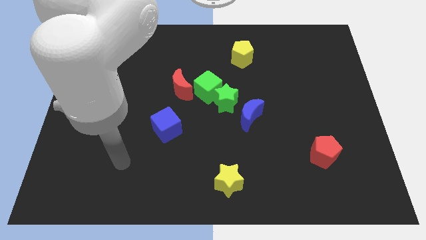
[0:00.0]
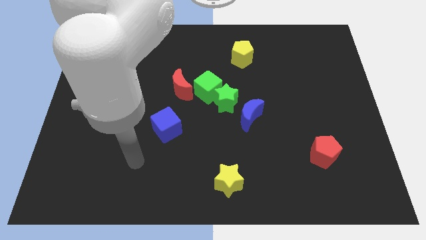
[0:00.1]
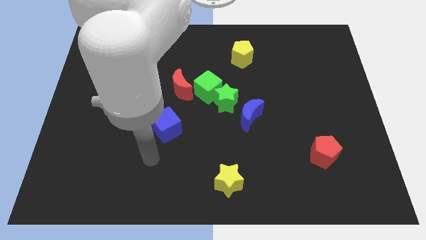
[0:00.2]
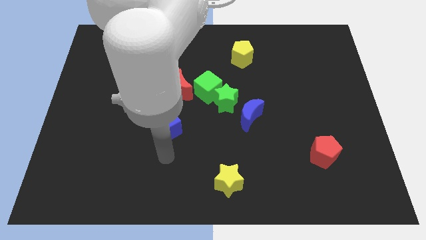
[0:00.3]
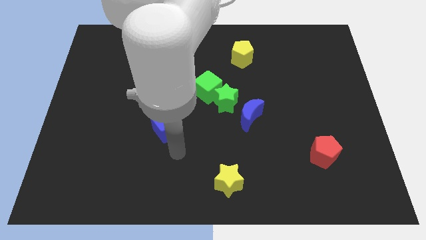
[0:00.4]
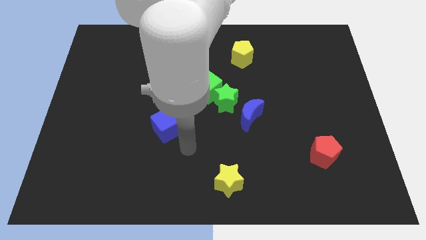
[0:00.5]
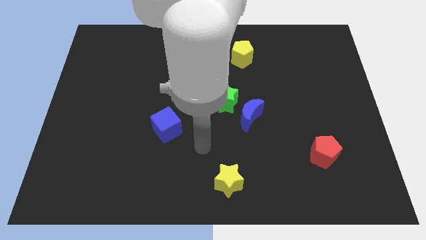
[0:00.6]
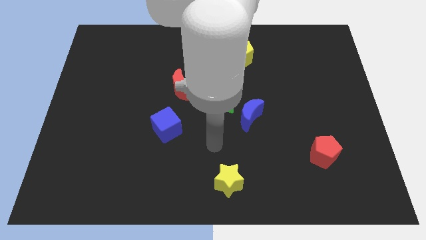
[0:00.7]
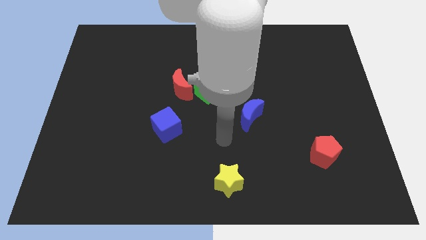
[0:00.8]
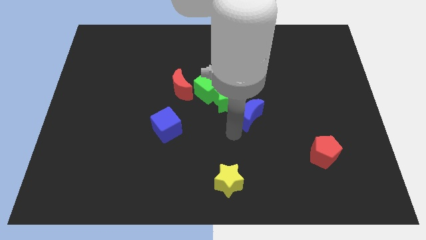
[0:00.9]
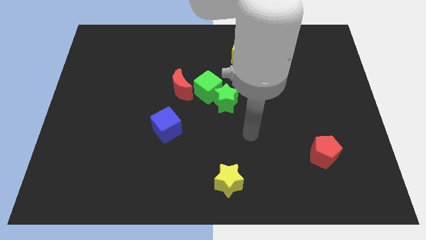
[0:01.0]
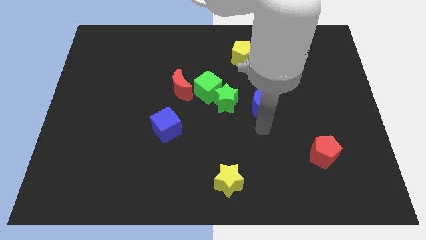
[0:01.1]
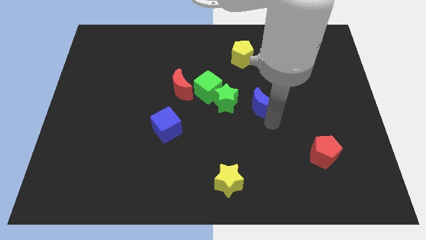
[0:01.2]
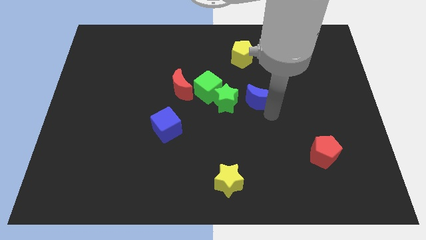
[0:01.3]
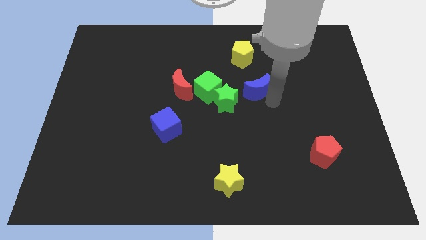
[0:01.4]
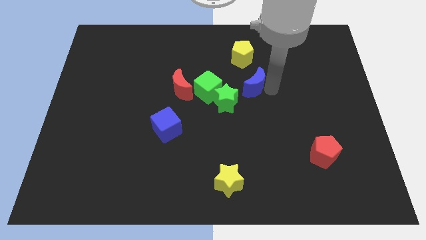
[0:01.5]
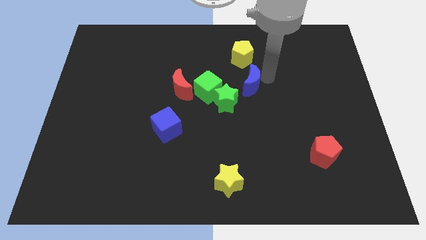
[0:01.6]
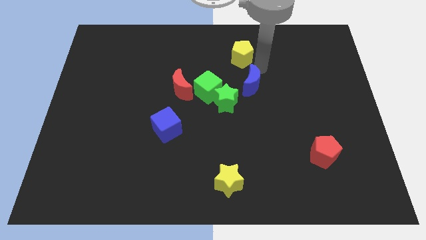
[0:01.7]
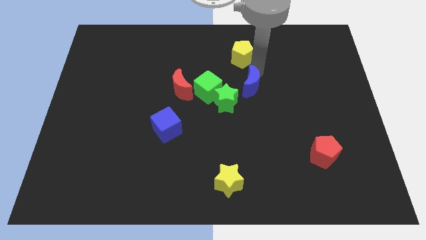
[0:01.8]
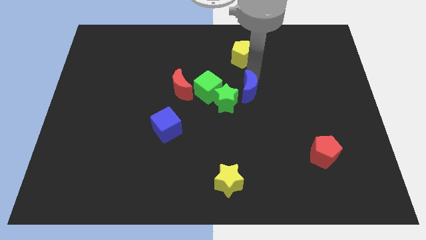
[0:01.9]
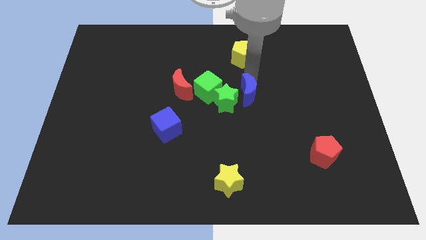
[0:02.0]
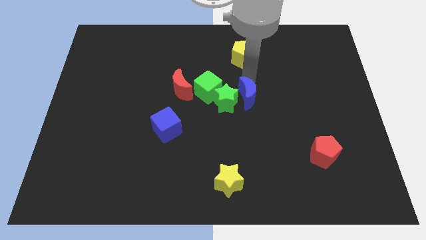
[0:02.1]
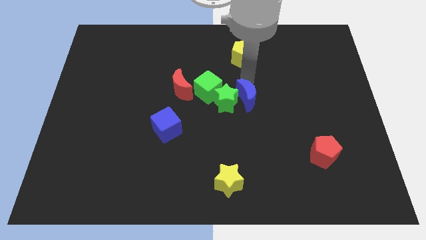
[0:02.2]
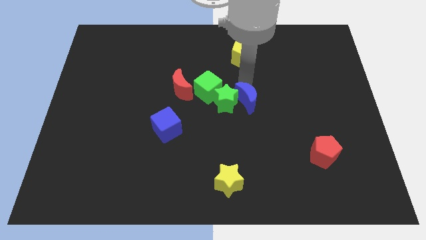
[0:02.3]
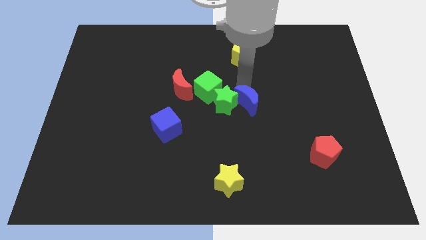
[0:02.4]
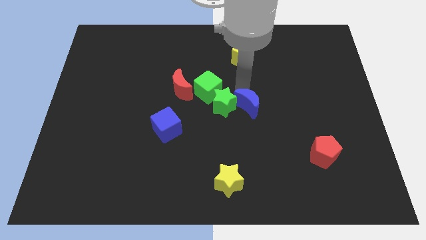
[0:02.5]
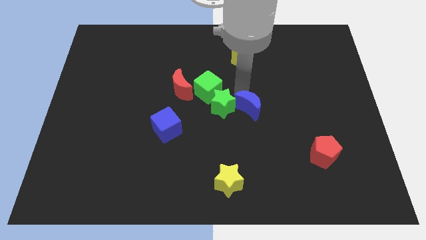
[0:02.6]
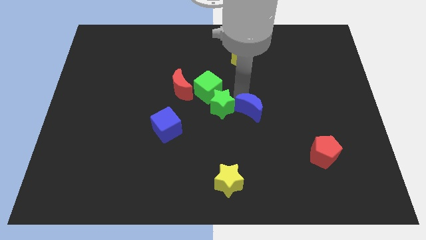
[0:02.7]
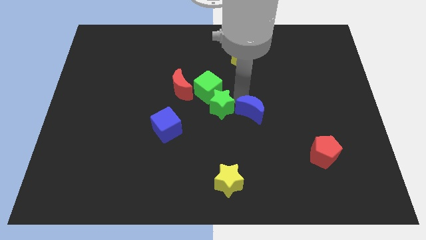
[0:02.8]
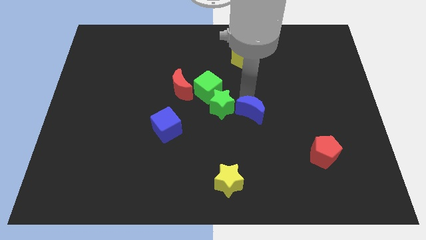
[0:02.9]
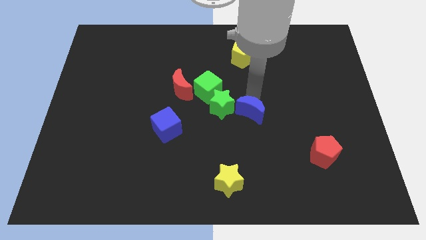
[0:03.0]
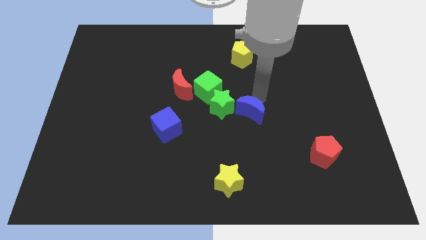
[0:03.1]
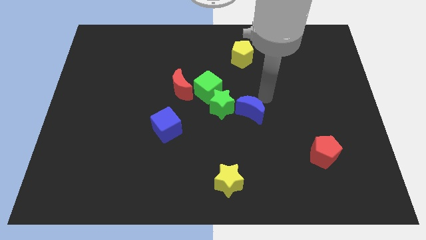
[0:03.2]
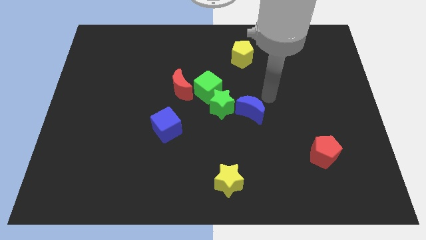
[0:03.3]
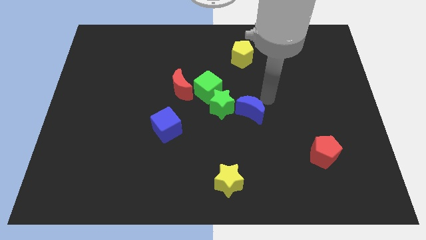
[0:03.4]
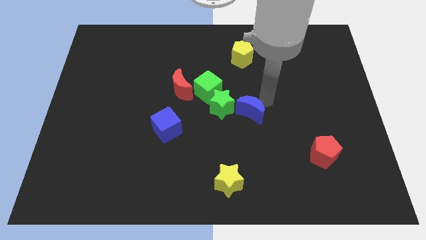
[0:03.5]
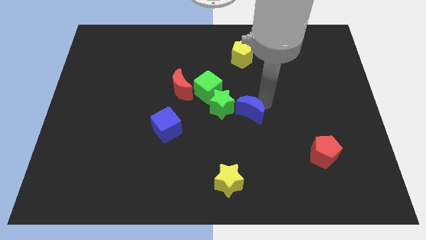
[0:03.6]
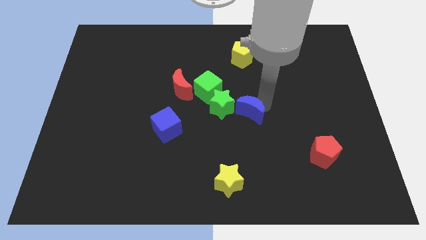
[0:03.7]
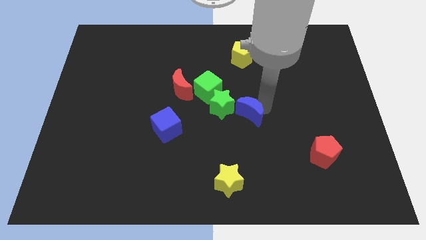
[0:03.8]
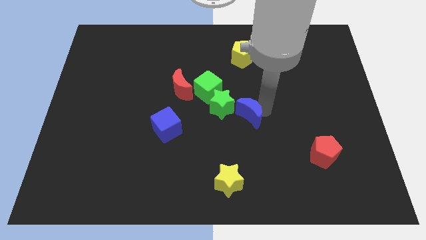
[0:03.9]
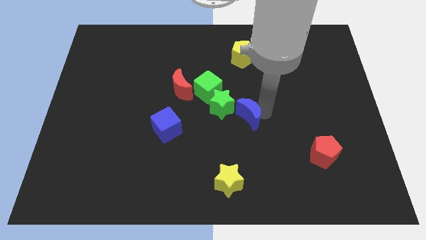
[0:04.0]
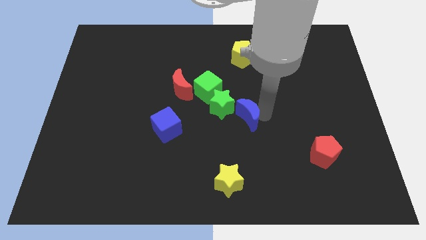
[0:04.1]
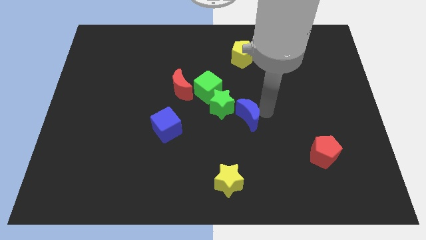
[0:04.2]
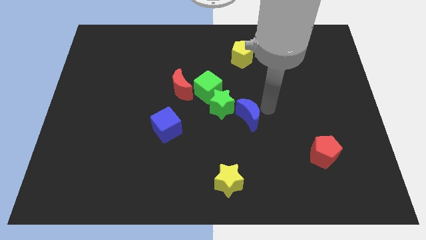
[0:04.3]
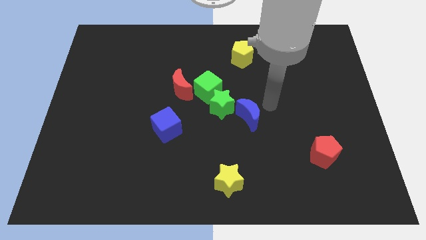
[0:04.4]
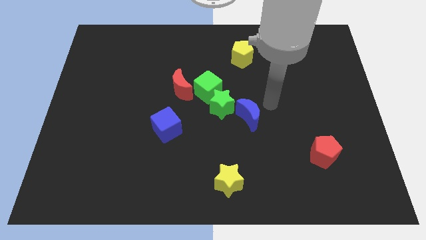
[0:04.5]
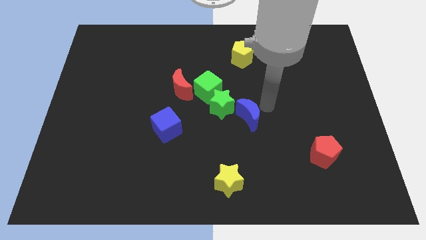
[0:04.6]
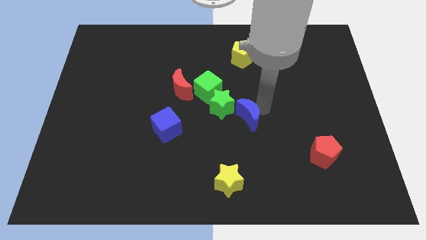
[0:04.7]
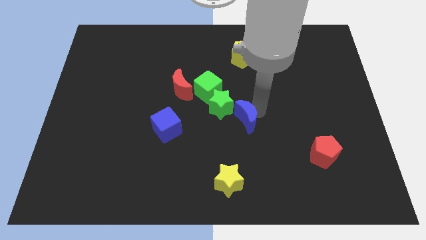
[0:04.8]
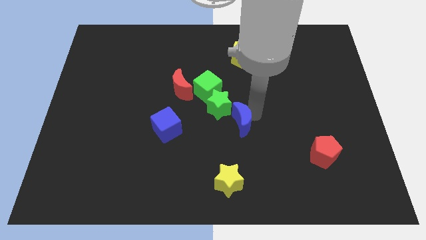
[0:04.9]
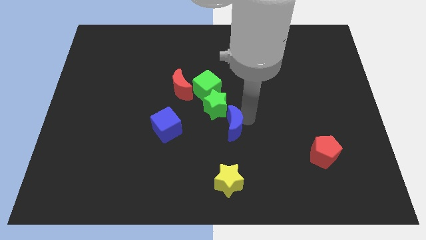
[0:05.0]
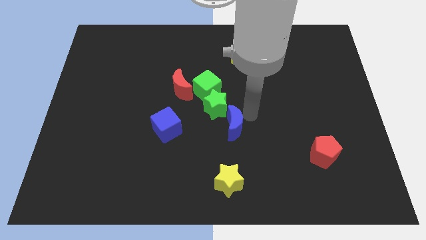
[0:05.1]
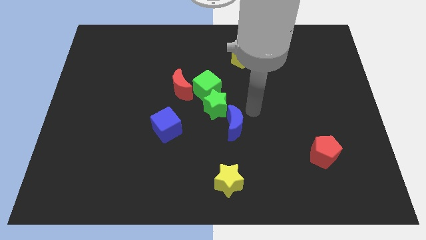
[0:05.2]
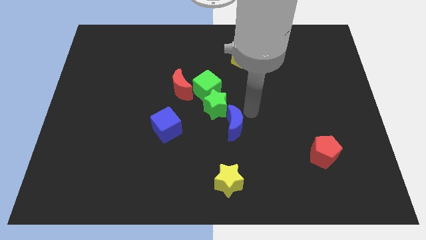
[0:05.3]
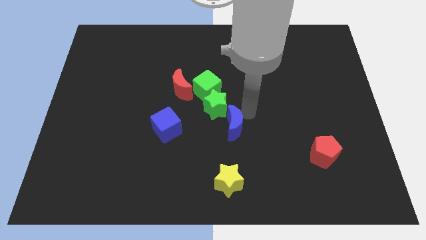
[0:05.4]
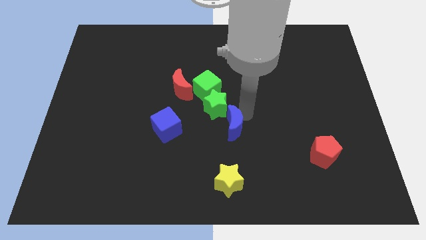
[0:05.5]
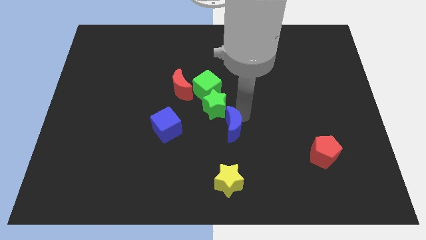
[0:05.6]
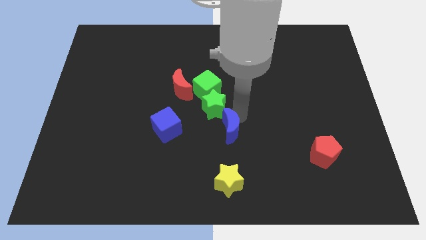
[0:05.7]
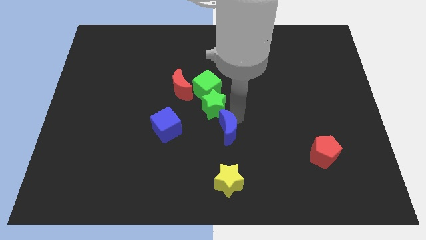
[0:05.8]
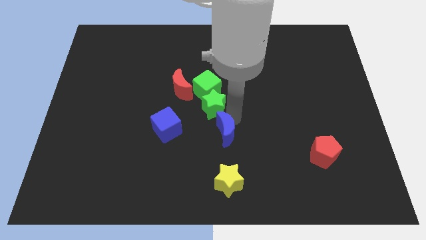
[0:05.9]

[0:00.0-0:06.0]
push the blue moon down and then to the left somewhat

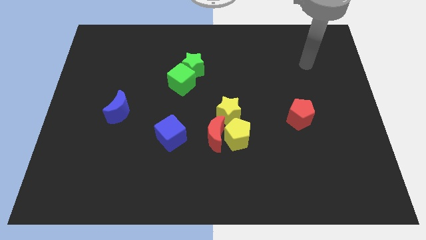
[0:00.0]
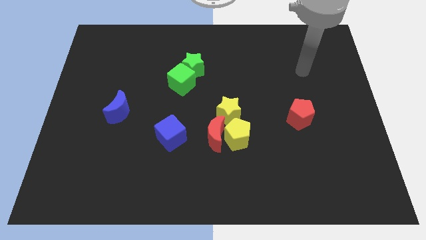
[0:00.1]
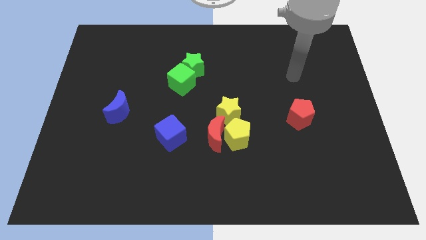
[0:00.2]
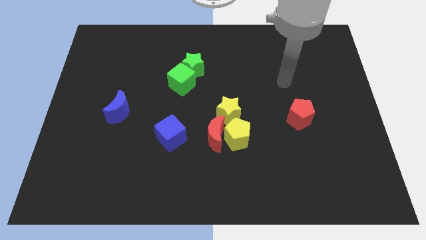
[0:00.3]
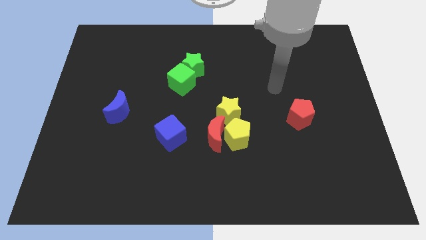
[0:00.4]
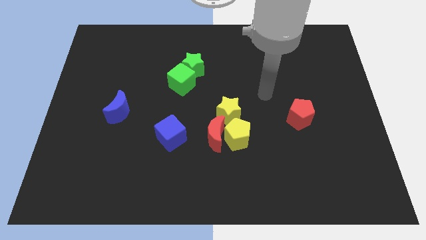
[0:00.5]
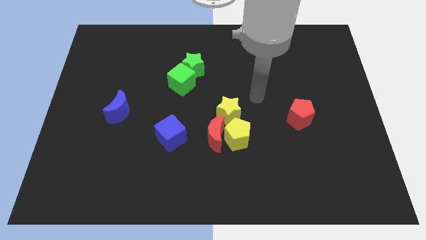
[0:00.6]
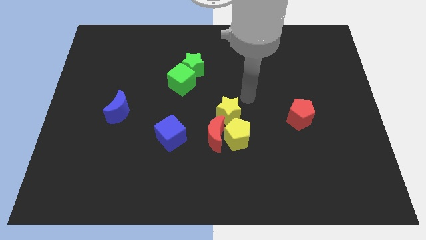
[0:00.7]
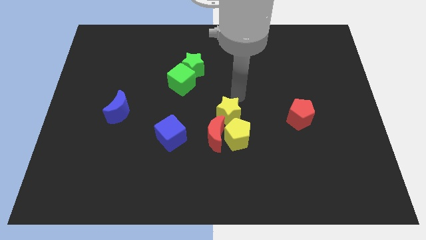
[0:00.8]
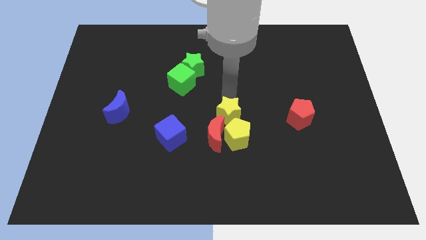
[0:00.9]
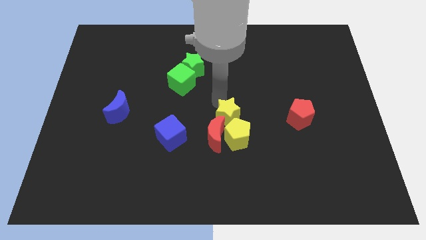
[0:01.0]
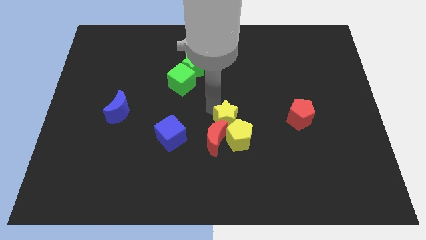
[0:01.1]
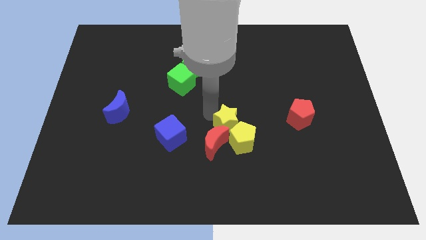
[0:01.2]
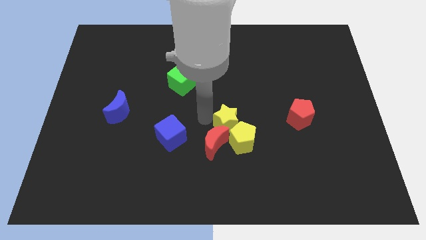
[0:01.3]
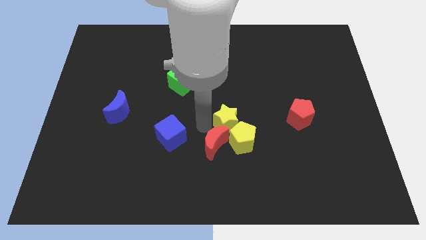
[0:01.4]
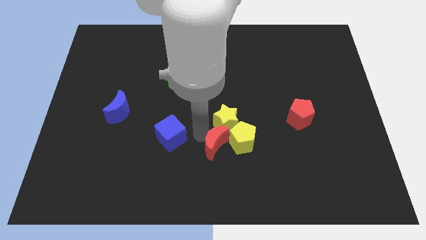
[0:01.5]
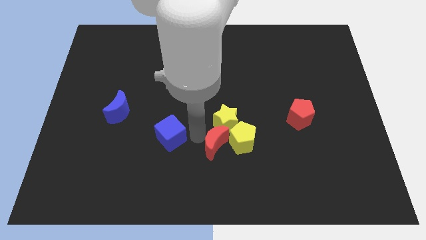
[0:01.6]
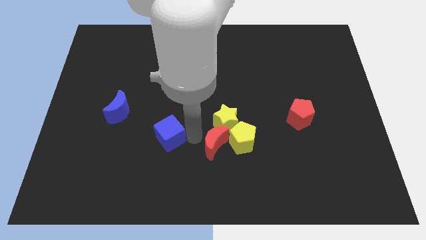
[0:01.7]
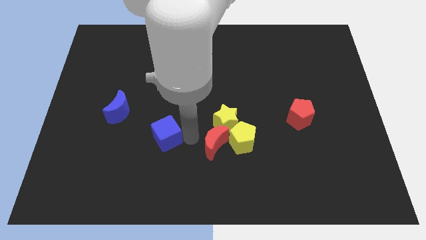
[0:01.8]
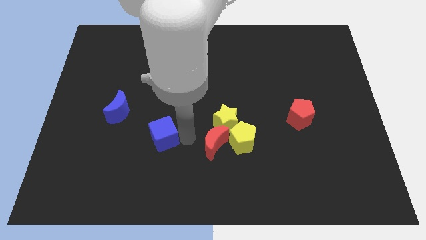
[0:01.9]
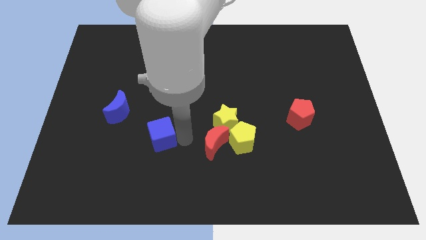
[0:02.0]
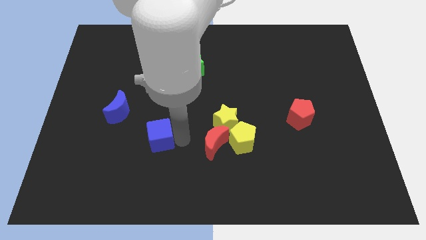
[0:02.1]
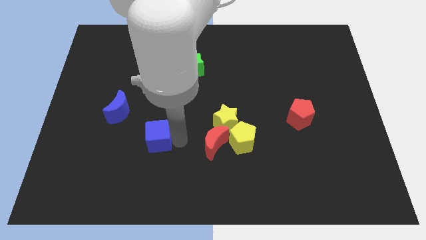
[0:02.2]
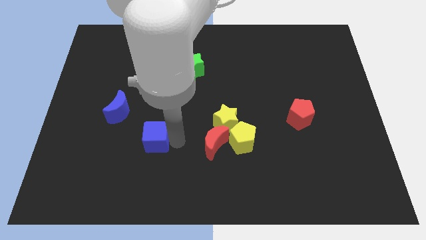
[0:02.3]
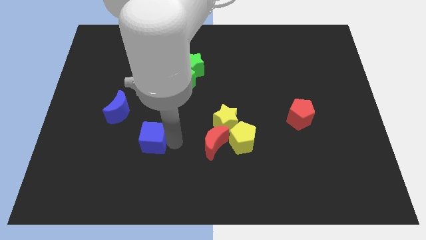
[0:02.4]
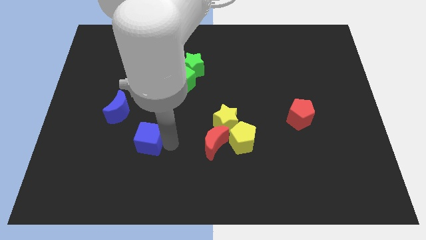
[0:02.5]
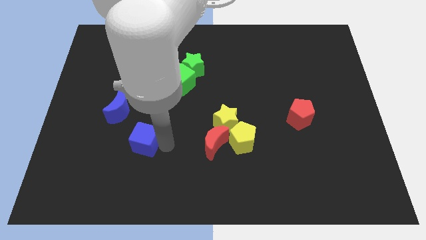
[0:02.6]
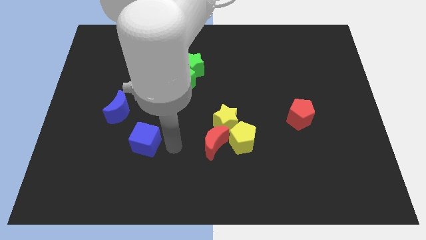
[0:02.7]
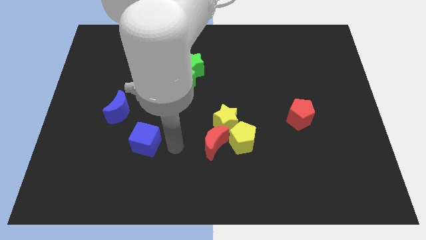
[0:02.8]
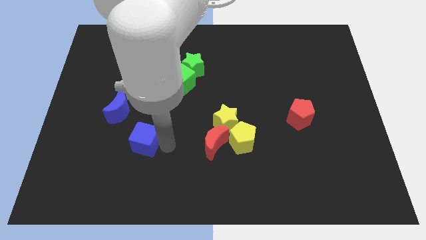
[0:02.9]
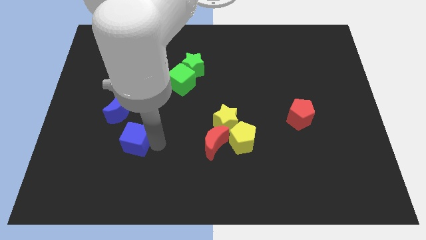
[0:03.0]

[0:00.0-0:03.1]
slightly move the blue cube to the left
